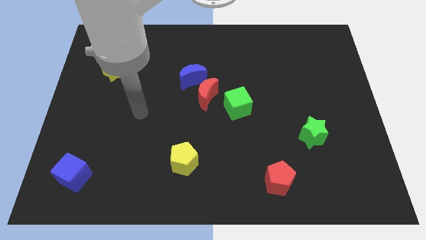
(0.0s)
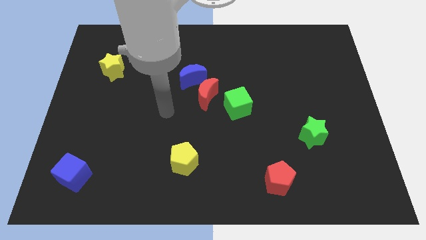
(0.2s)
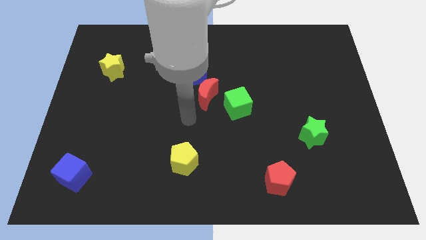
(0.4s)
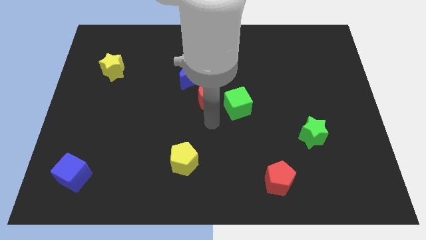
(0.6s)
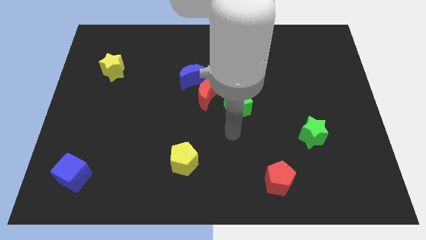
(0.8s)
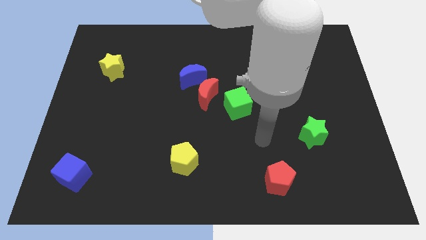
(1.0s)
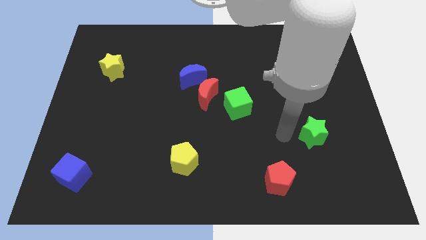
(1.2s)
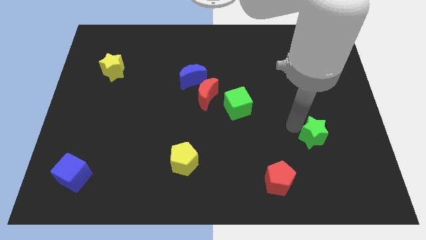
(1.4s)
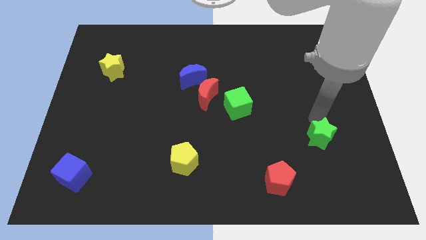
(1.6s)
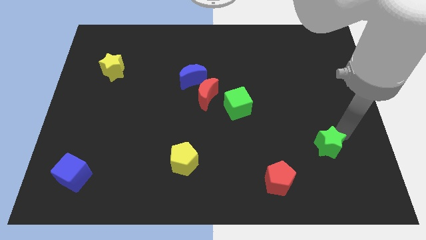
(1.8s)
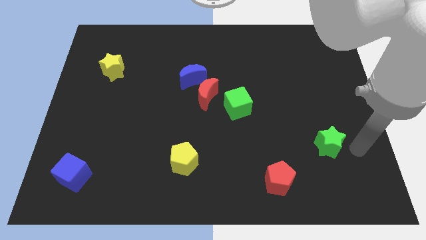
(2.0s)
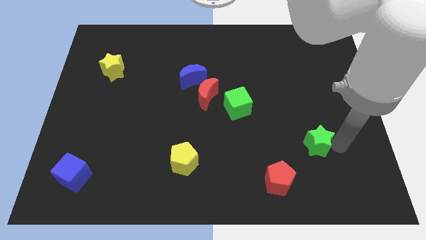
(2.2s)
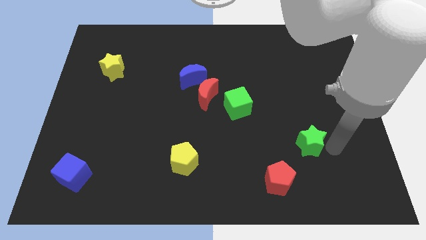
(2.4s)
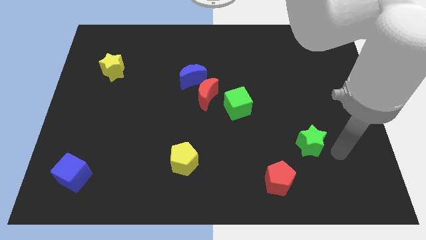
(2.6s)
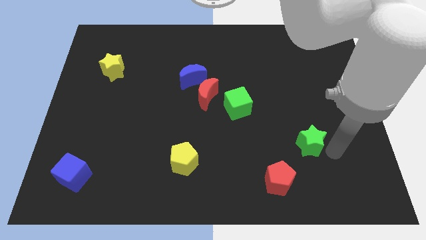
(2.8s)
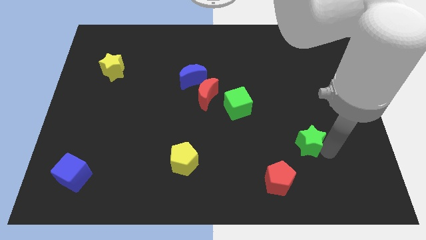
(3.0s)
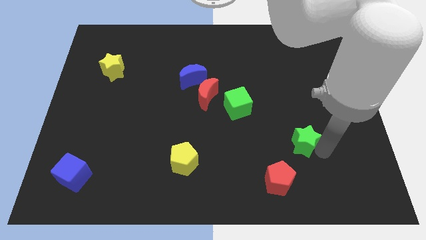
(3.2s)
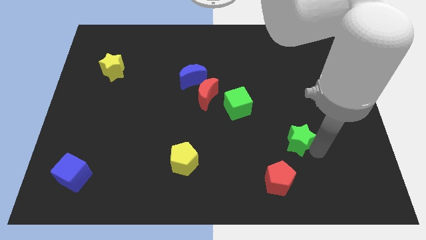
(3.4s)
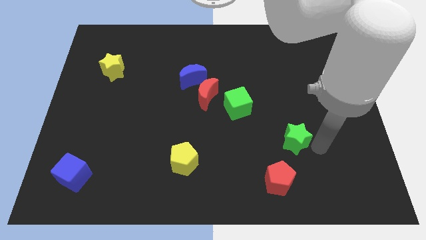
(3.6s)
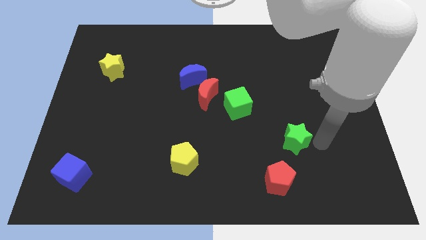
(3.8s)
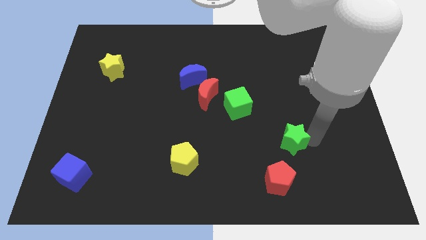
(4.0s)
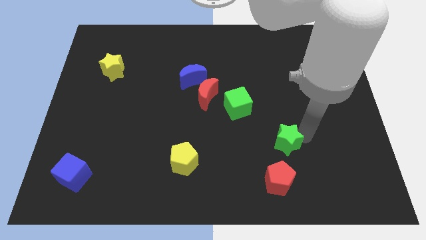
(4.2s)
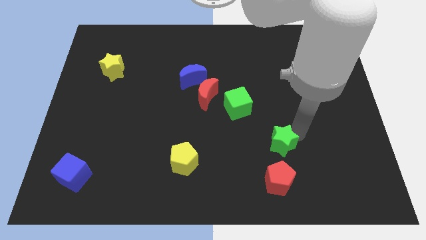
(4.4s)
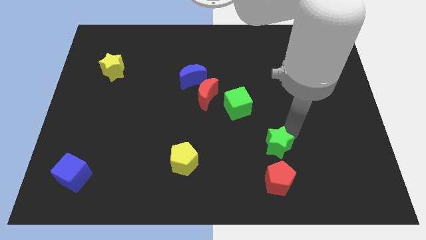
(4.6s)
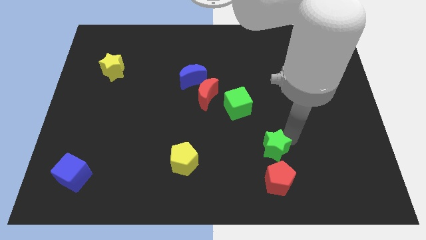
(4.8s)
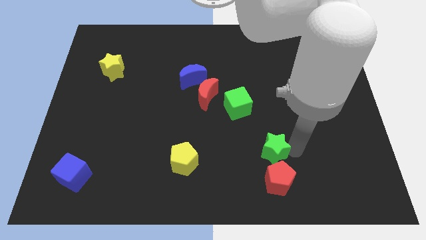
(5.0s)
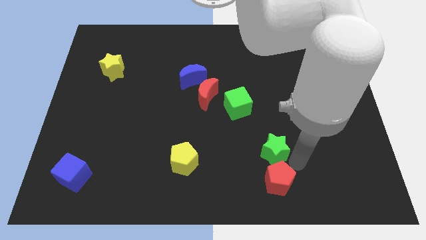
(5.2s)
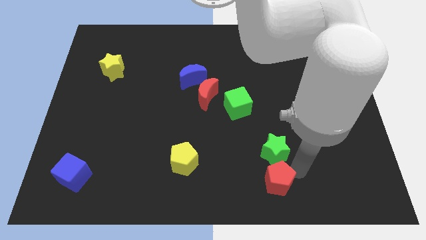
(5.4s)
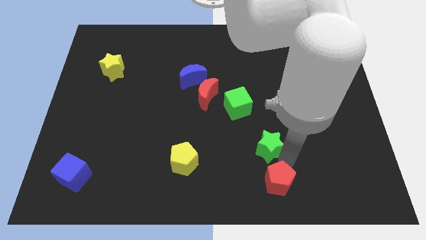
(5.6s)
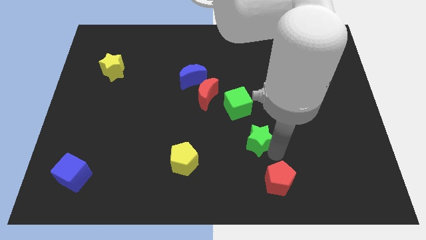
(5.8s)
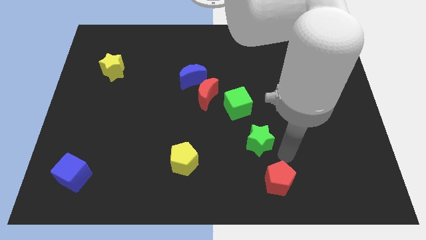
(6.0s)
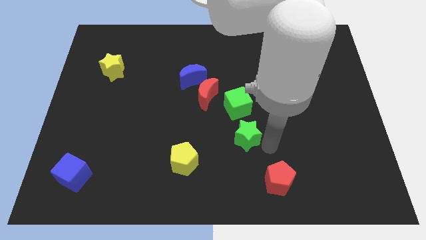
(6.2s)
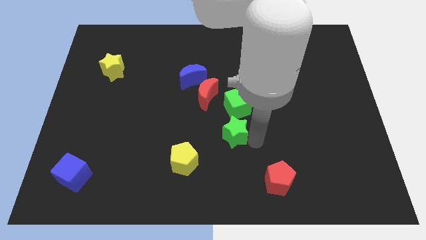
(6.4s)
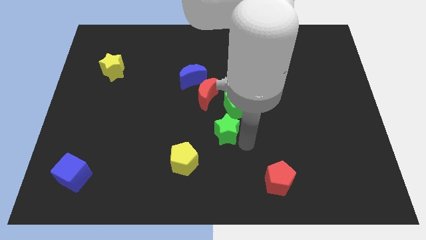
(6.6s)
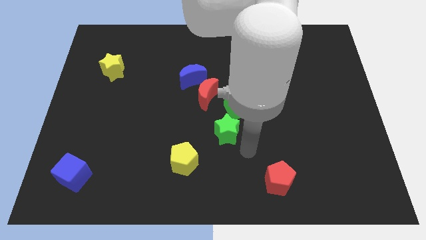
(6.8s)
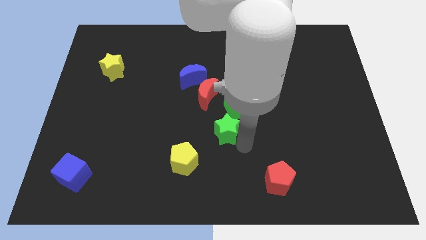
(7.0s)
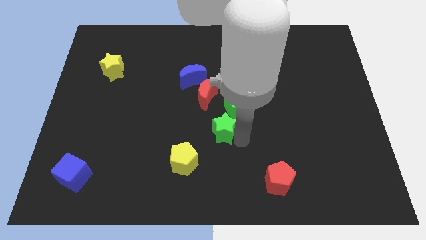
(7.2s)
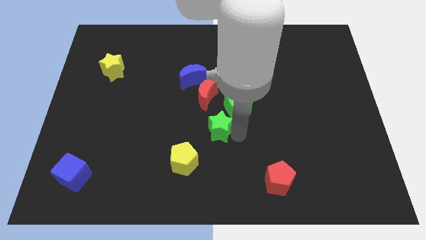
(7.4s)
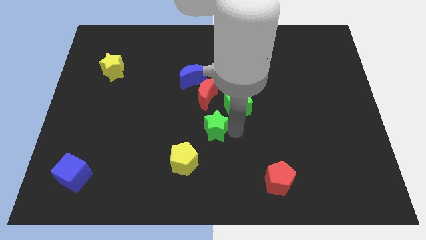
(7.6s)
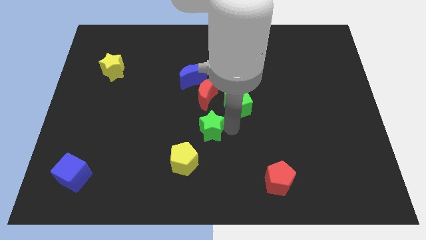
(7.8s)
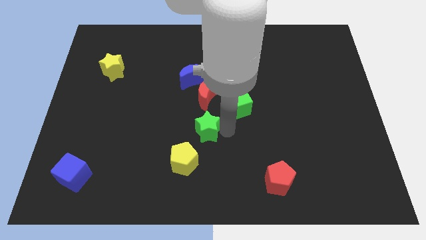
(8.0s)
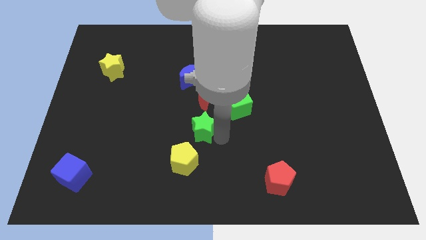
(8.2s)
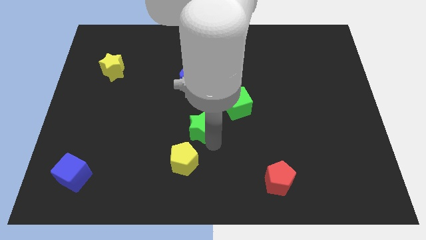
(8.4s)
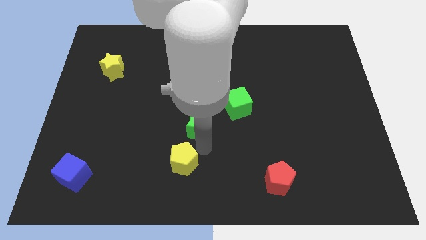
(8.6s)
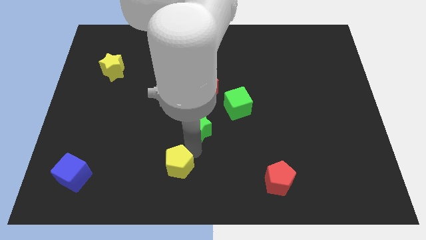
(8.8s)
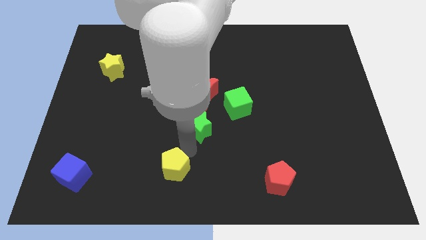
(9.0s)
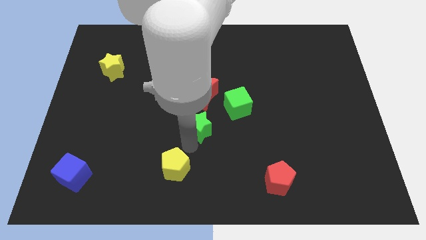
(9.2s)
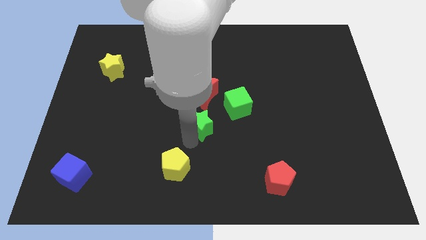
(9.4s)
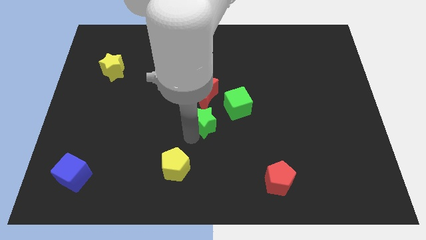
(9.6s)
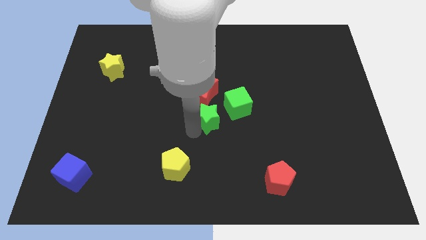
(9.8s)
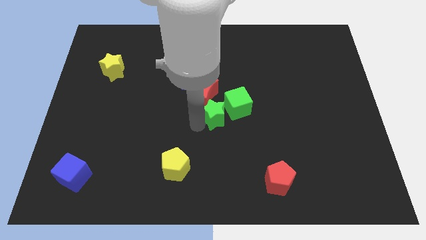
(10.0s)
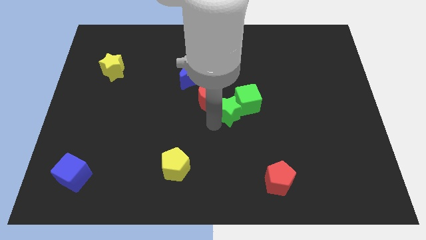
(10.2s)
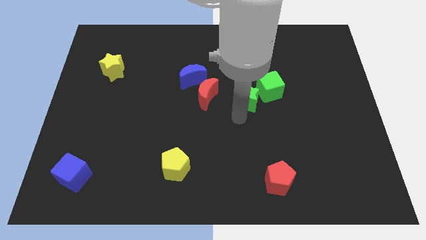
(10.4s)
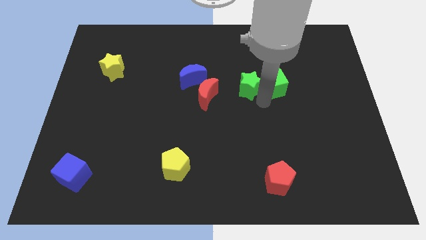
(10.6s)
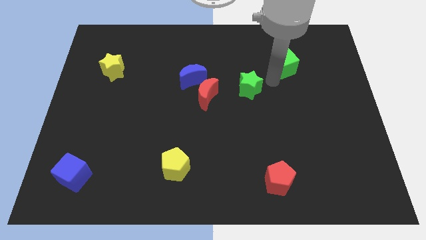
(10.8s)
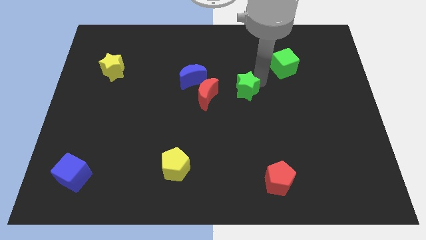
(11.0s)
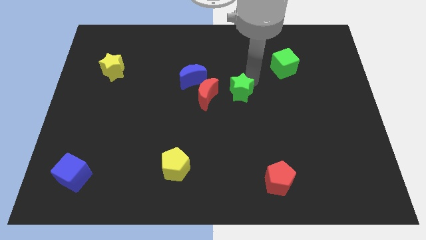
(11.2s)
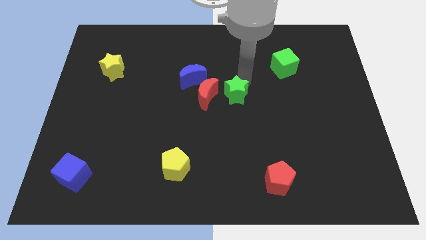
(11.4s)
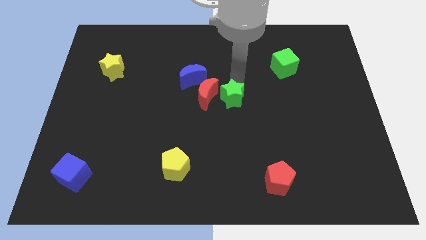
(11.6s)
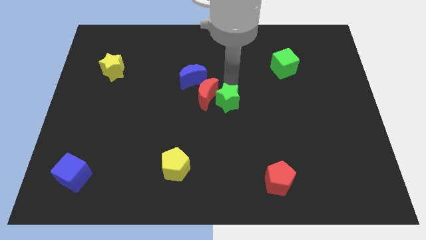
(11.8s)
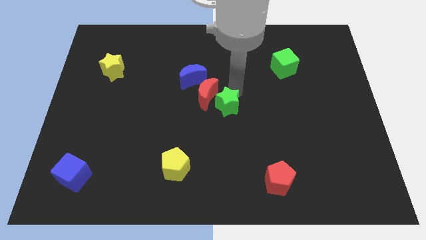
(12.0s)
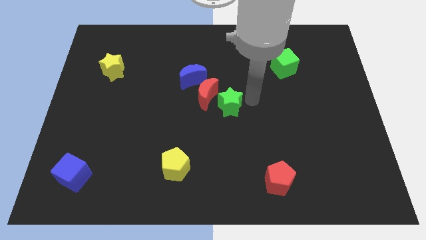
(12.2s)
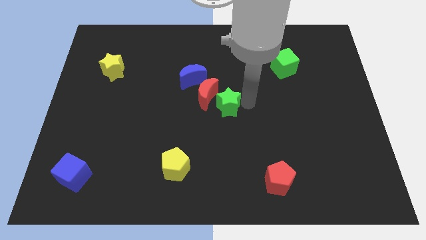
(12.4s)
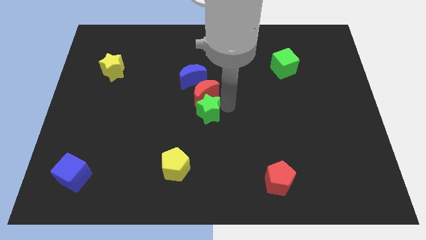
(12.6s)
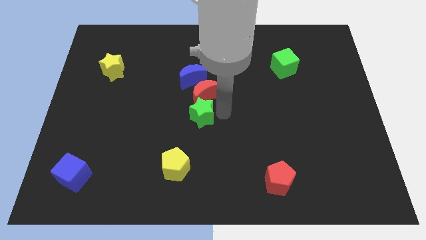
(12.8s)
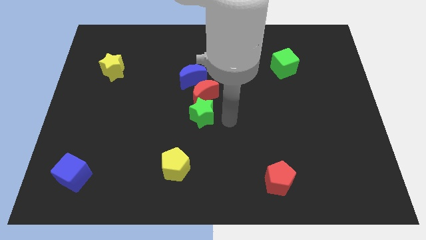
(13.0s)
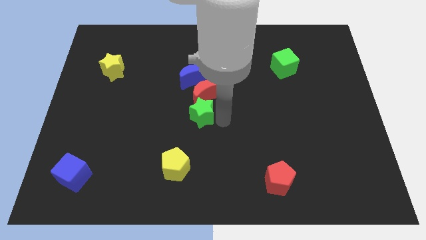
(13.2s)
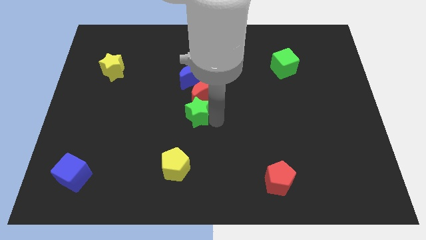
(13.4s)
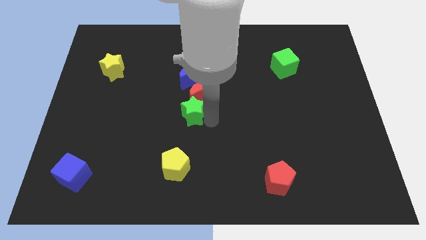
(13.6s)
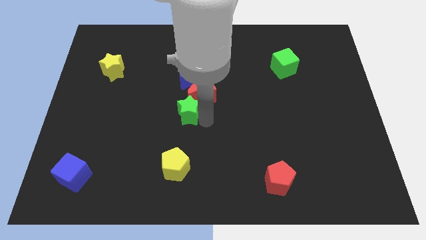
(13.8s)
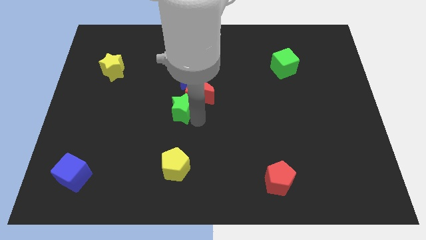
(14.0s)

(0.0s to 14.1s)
slide the green star to the left side of the red moon

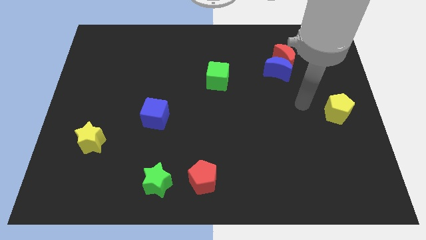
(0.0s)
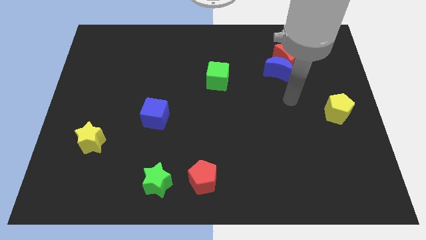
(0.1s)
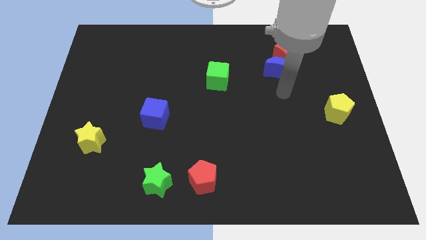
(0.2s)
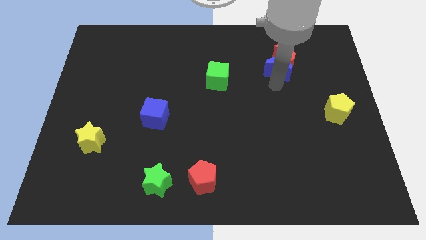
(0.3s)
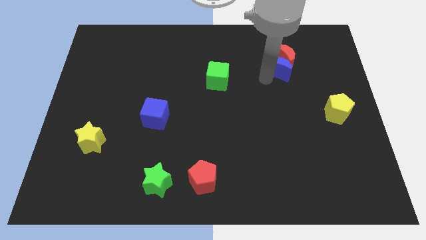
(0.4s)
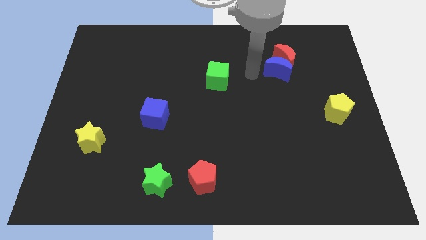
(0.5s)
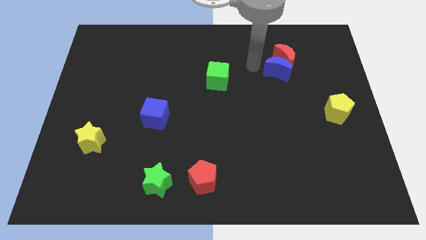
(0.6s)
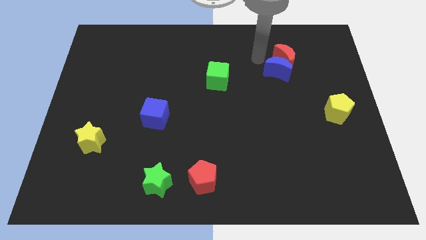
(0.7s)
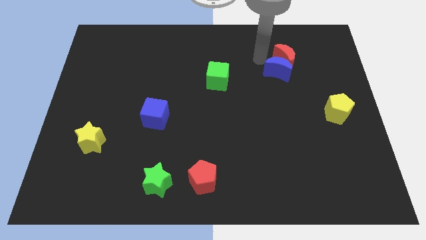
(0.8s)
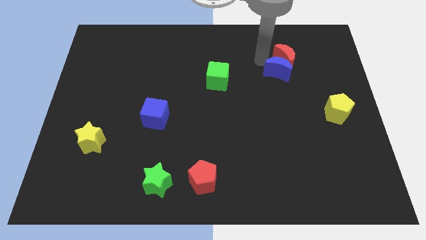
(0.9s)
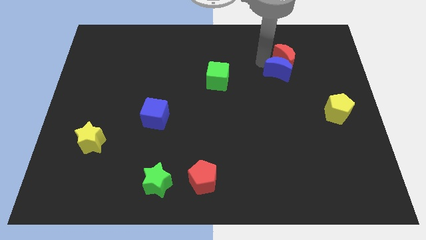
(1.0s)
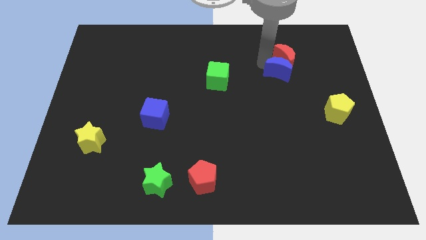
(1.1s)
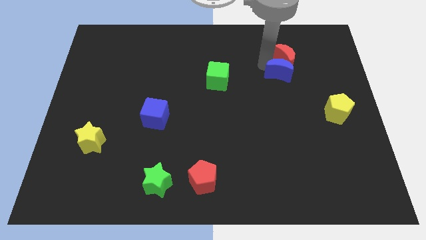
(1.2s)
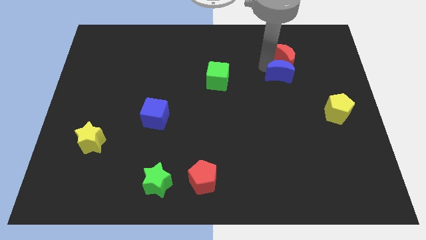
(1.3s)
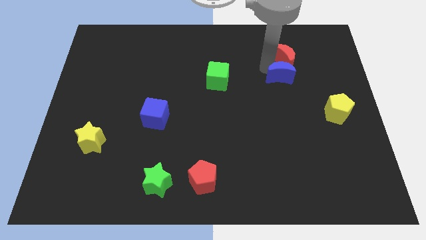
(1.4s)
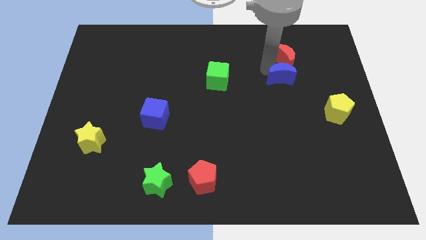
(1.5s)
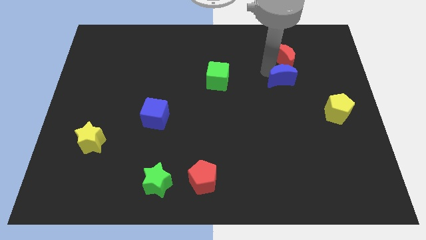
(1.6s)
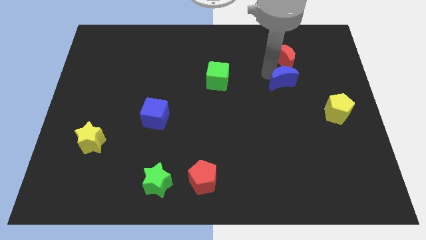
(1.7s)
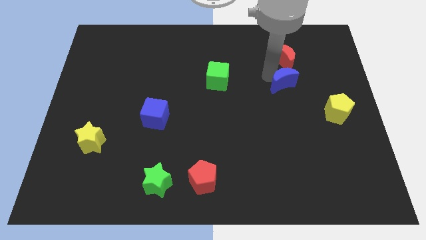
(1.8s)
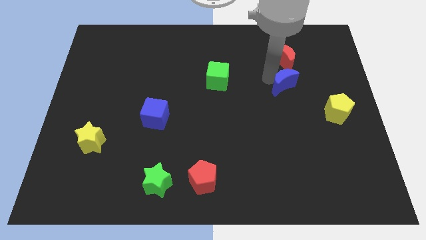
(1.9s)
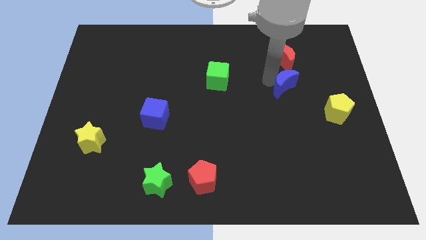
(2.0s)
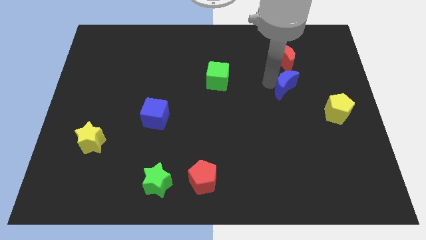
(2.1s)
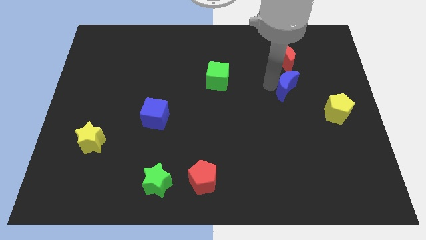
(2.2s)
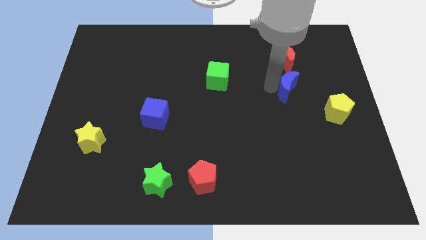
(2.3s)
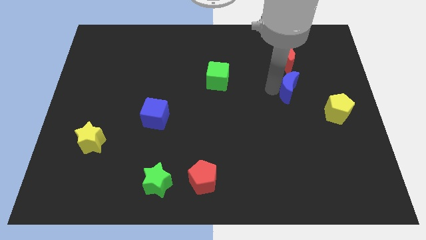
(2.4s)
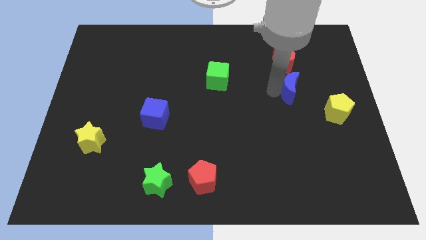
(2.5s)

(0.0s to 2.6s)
slide the blue moon diagonally up and to the left of the yellow pentagon
